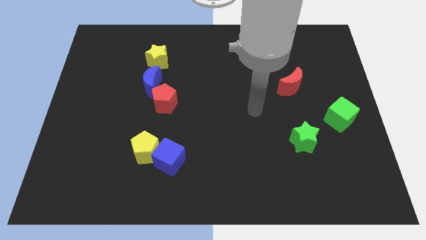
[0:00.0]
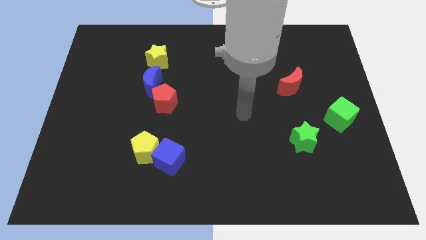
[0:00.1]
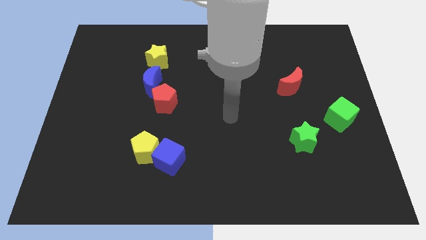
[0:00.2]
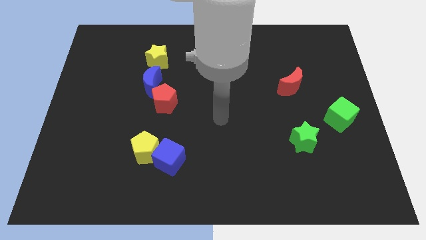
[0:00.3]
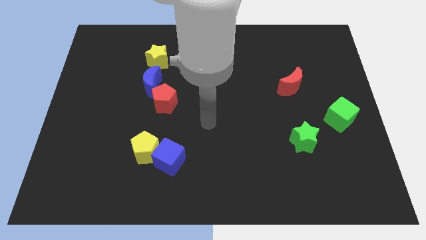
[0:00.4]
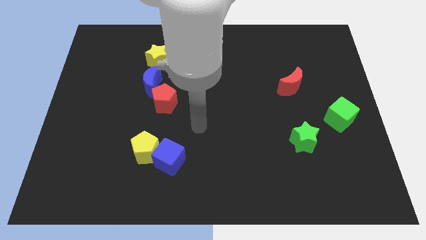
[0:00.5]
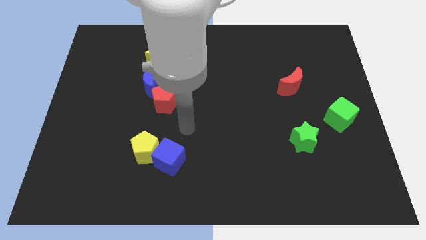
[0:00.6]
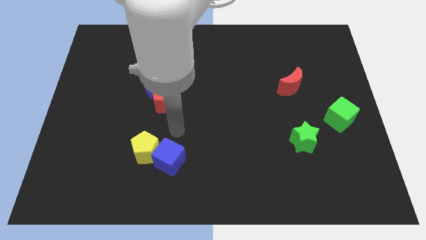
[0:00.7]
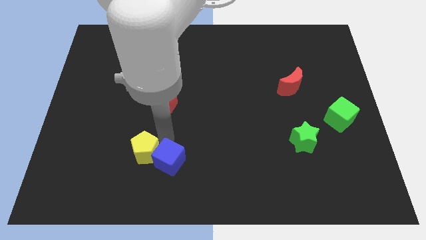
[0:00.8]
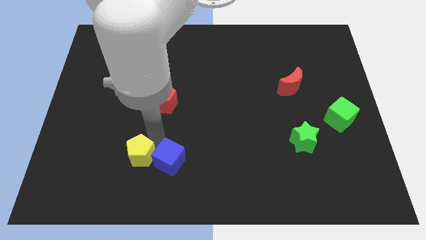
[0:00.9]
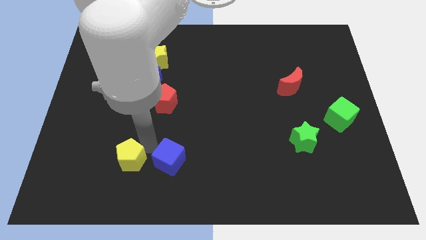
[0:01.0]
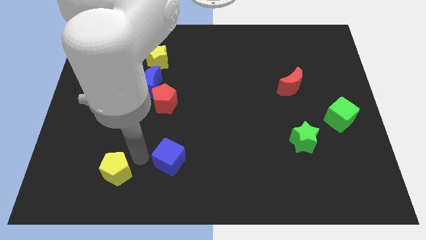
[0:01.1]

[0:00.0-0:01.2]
separate the blue cube from the yellow pentagon

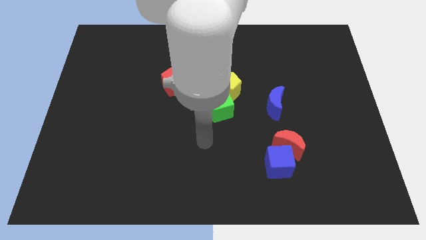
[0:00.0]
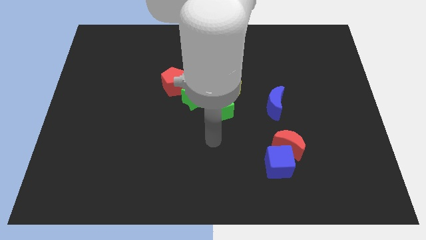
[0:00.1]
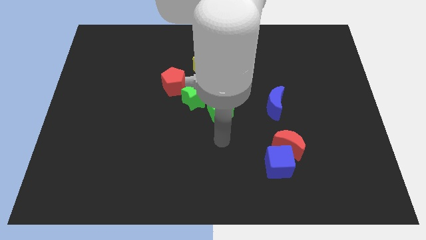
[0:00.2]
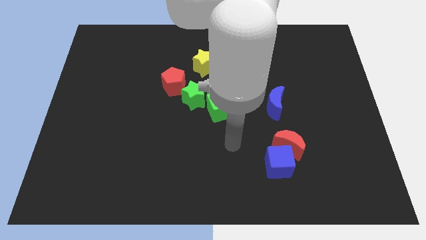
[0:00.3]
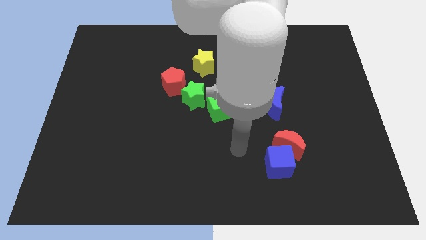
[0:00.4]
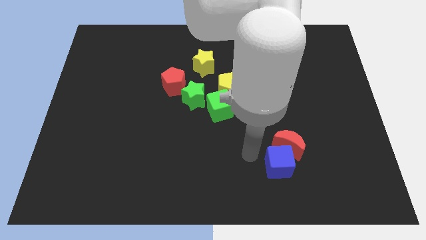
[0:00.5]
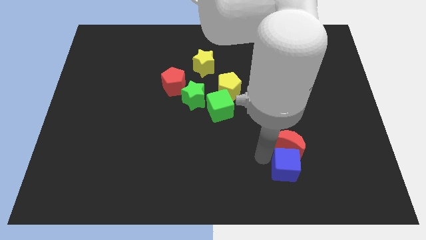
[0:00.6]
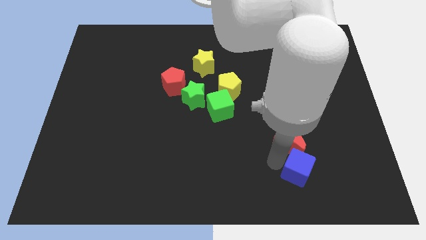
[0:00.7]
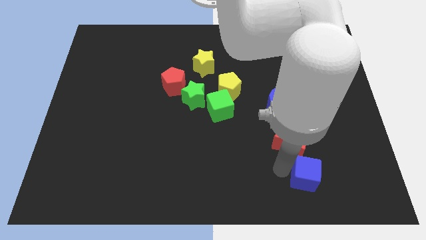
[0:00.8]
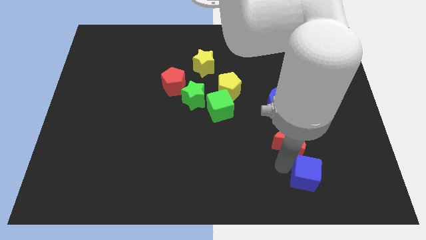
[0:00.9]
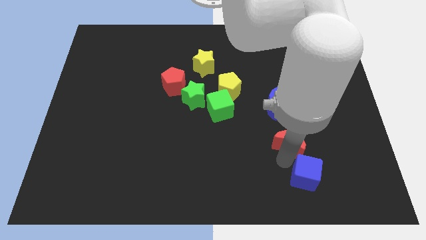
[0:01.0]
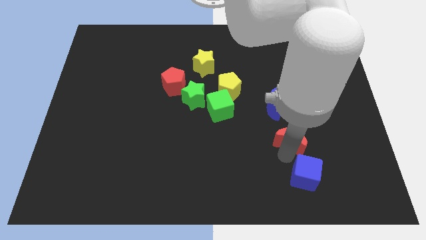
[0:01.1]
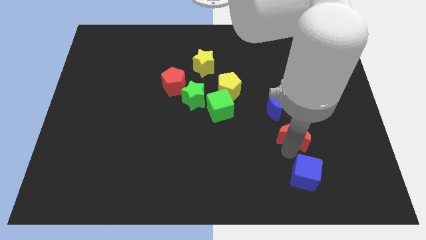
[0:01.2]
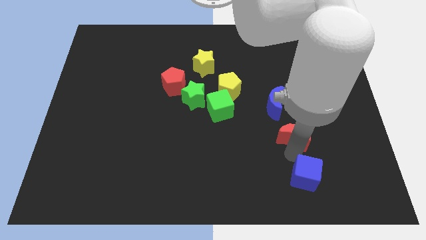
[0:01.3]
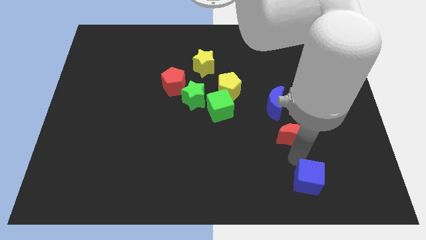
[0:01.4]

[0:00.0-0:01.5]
move the red moon away from the blue cube

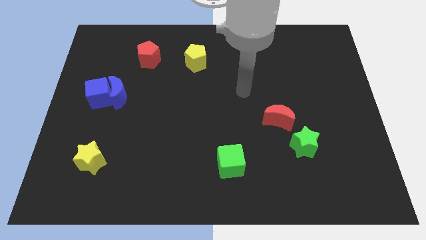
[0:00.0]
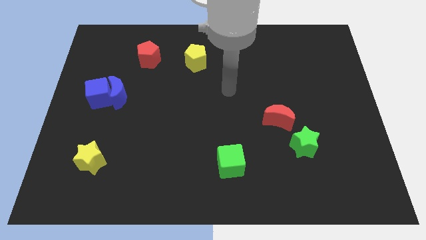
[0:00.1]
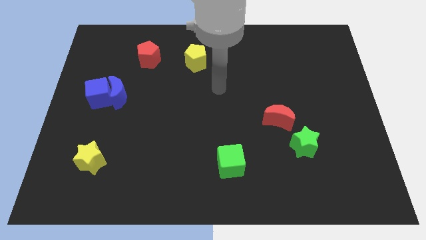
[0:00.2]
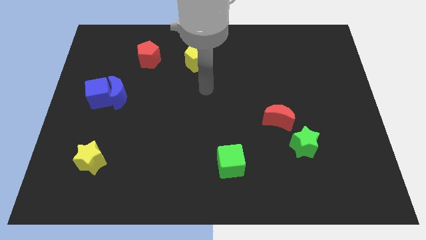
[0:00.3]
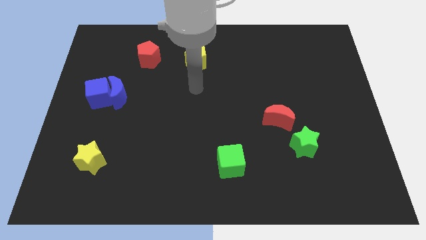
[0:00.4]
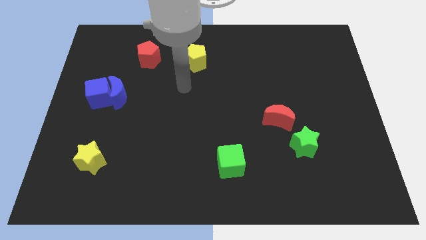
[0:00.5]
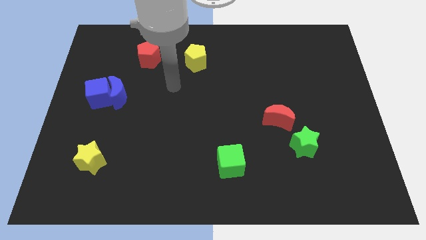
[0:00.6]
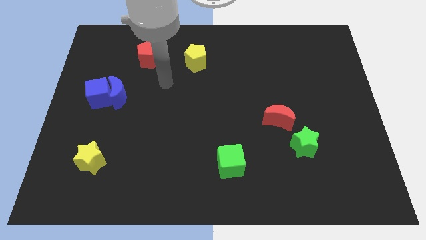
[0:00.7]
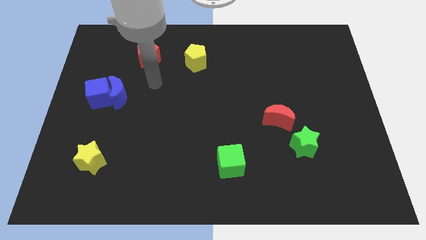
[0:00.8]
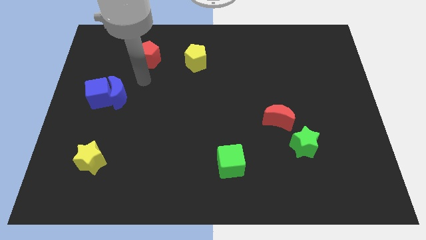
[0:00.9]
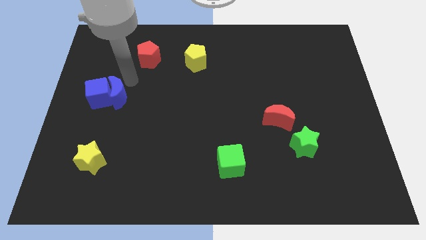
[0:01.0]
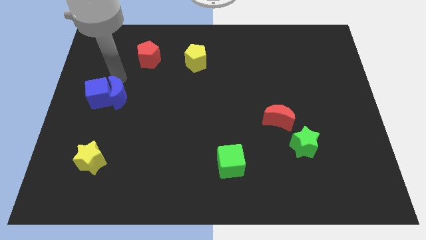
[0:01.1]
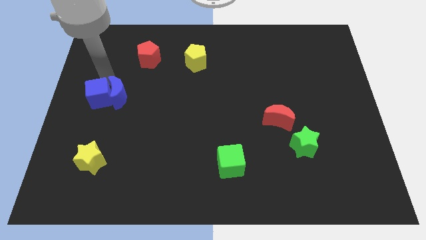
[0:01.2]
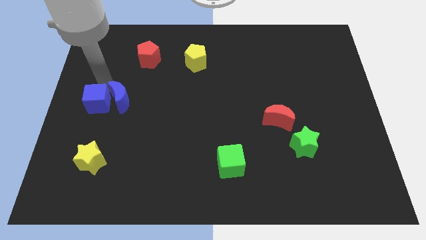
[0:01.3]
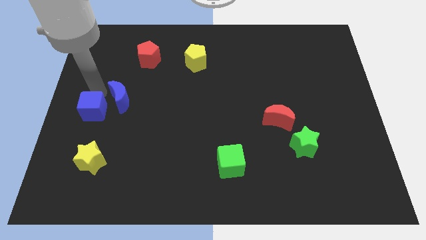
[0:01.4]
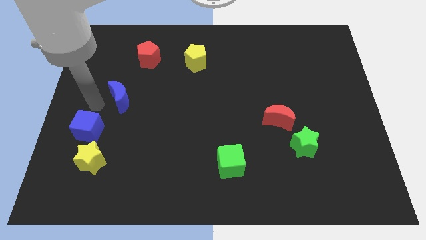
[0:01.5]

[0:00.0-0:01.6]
move the blue moon away from the blue cube

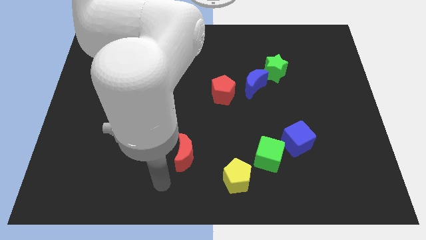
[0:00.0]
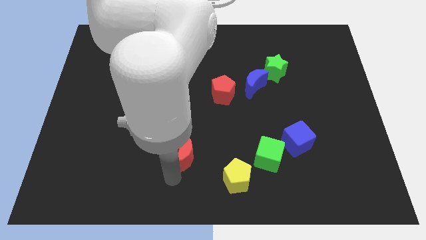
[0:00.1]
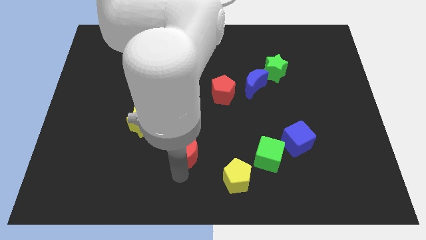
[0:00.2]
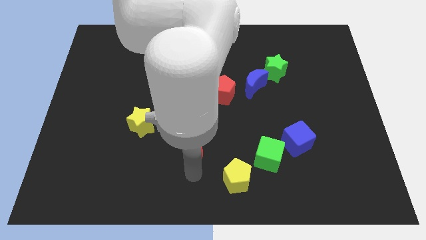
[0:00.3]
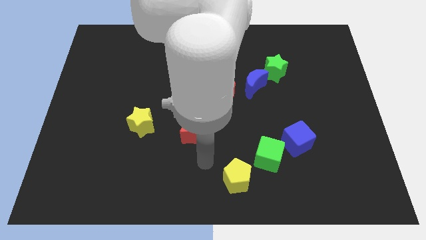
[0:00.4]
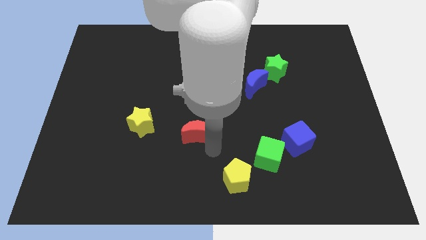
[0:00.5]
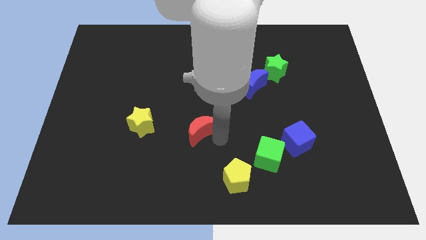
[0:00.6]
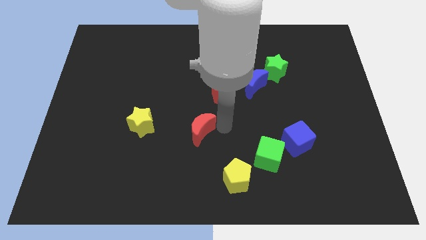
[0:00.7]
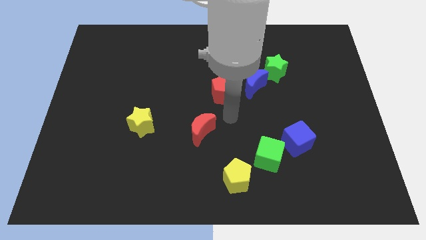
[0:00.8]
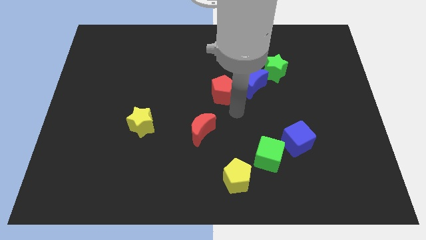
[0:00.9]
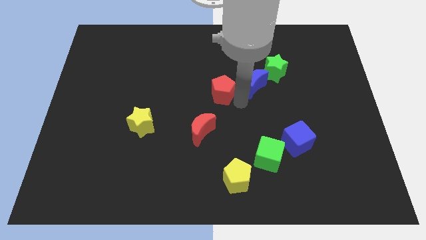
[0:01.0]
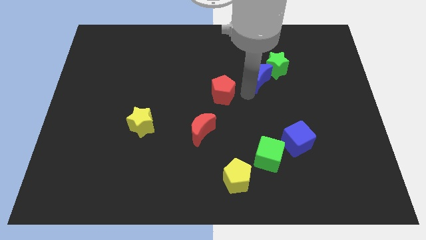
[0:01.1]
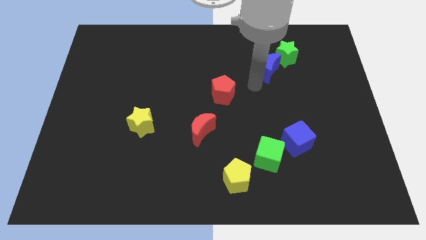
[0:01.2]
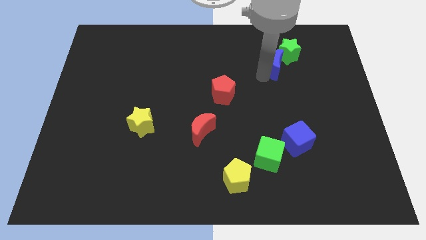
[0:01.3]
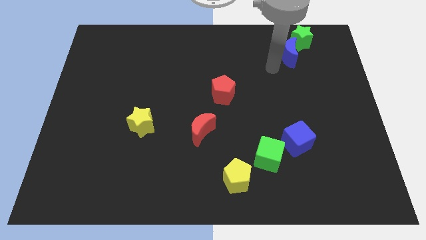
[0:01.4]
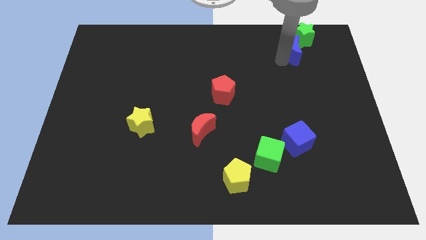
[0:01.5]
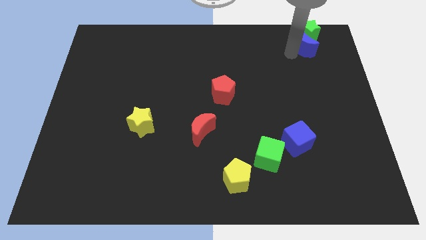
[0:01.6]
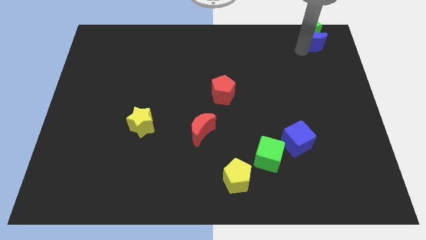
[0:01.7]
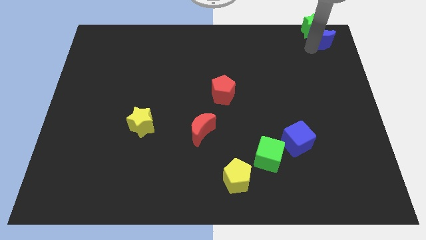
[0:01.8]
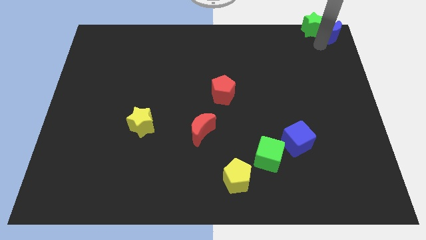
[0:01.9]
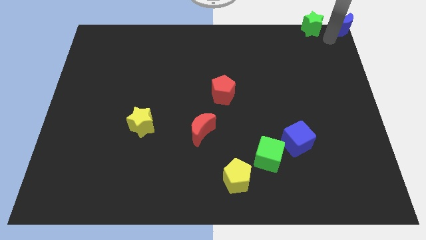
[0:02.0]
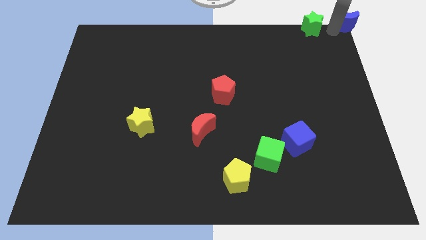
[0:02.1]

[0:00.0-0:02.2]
pull the green star apart from the blue moon

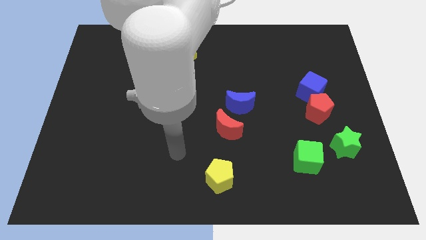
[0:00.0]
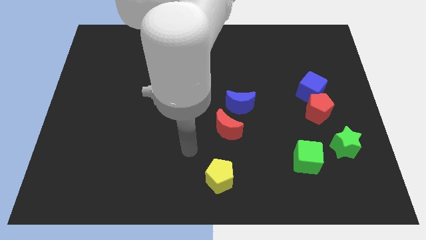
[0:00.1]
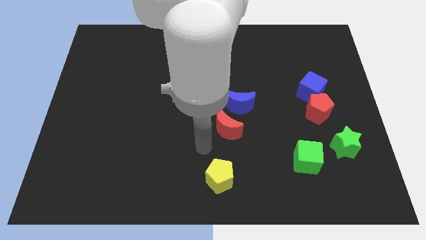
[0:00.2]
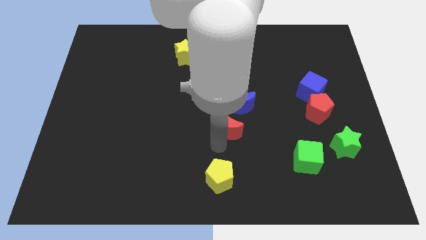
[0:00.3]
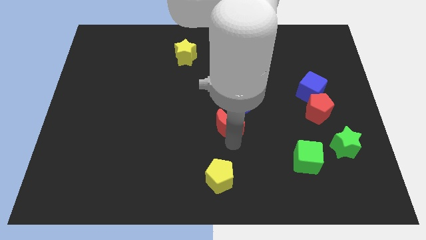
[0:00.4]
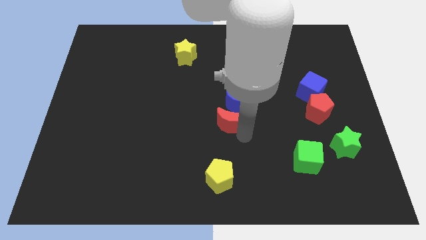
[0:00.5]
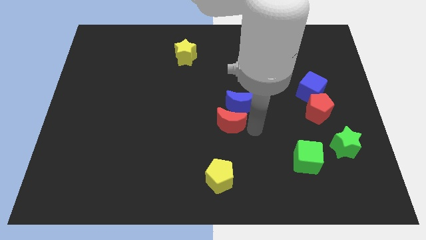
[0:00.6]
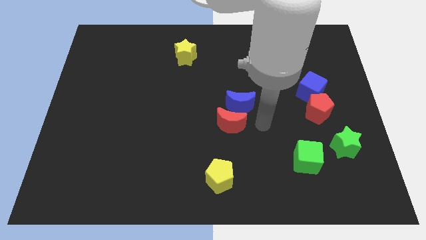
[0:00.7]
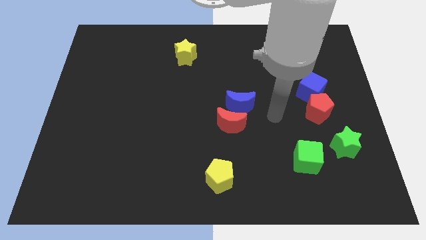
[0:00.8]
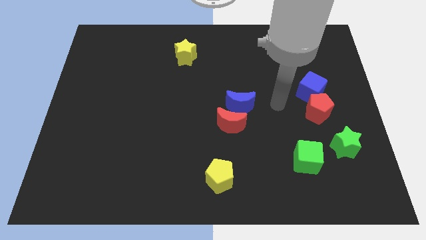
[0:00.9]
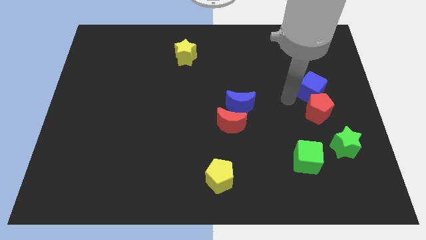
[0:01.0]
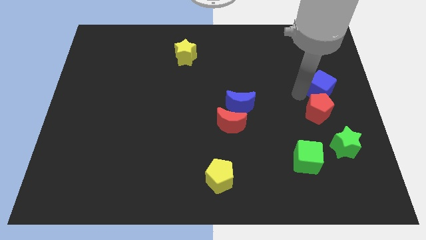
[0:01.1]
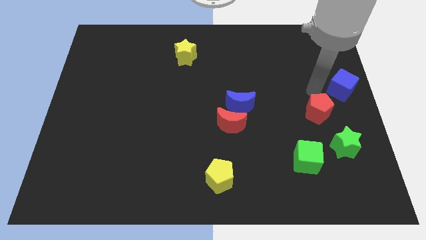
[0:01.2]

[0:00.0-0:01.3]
pull the red pentagon apart from the blue cube

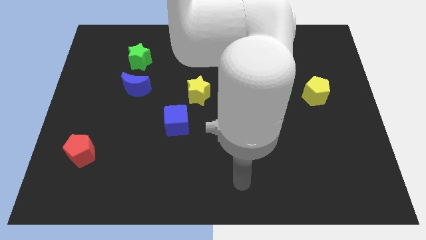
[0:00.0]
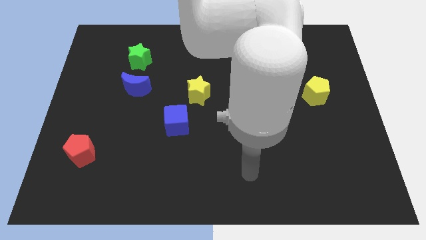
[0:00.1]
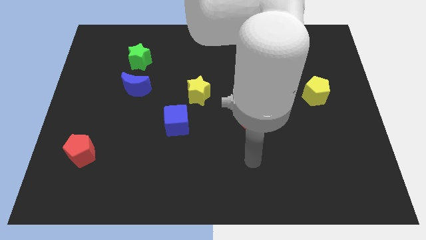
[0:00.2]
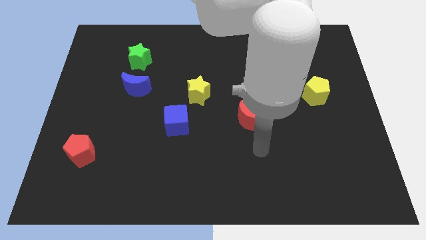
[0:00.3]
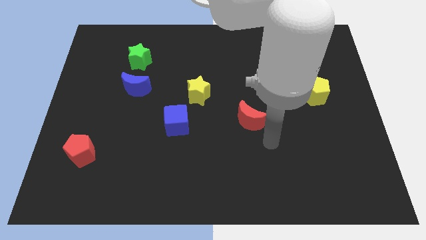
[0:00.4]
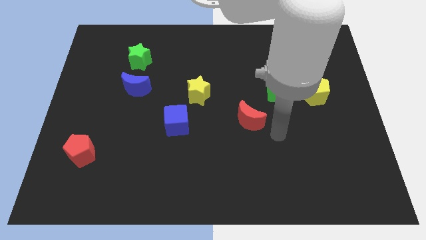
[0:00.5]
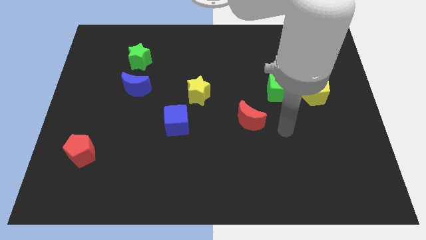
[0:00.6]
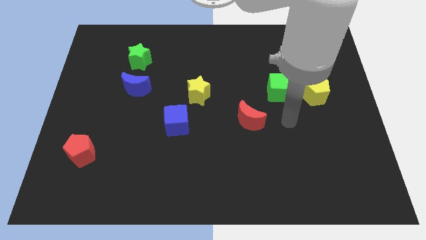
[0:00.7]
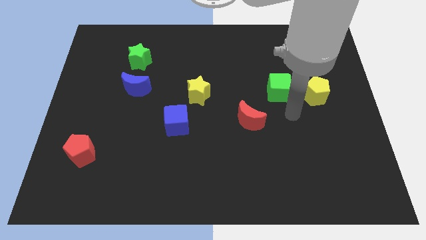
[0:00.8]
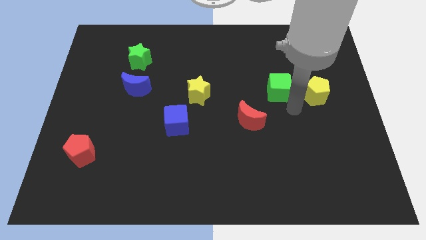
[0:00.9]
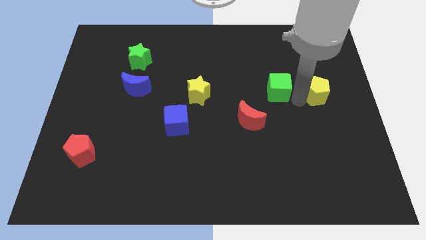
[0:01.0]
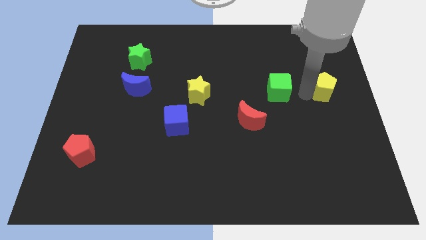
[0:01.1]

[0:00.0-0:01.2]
separate the green cube from the yellow pentagon

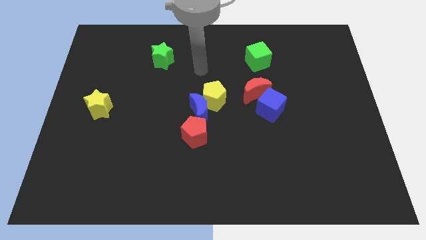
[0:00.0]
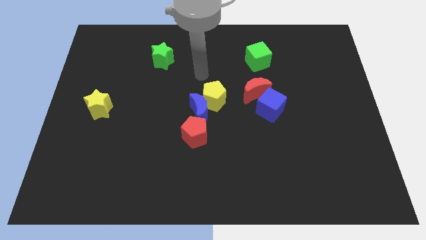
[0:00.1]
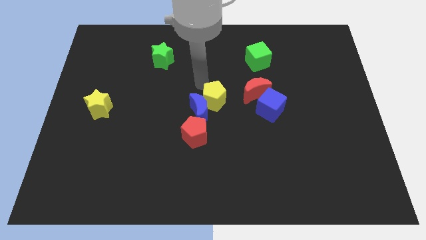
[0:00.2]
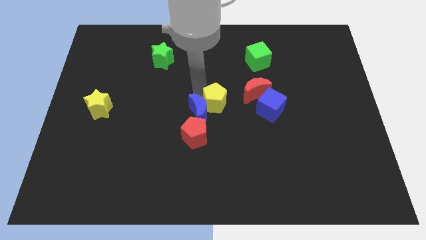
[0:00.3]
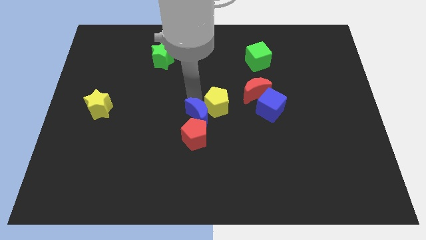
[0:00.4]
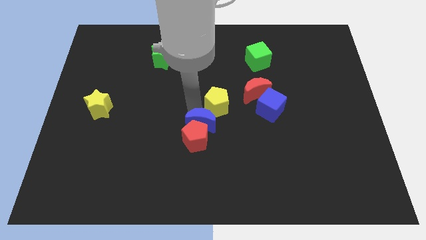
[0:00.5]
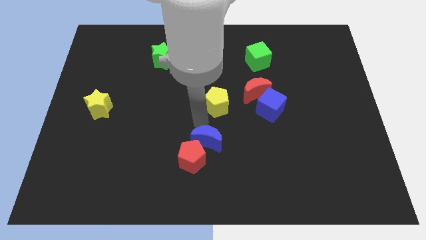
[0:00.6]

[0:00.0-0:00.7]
move the yellow pentagon away from the blue moon
